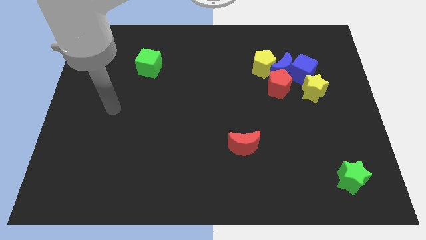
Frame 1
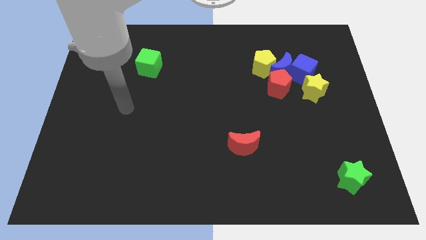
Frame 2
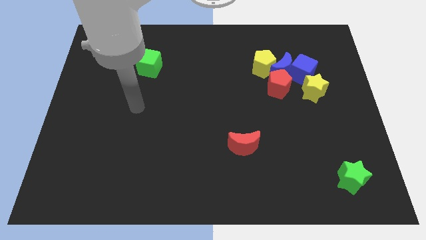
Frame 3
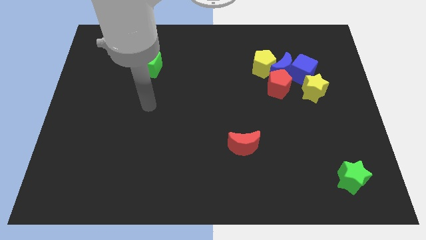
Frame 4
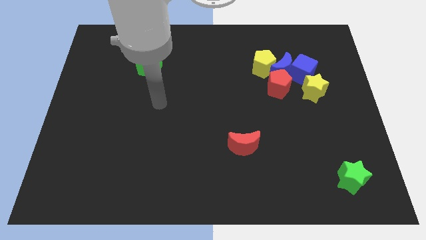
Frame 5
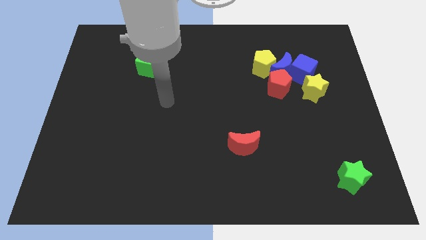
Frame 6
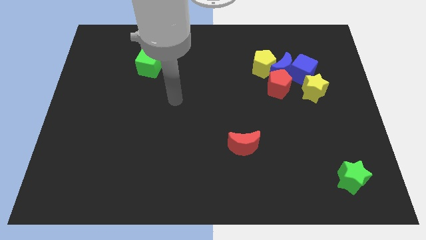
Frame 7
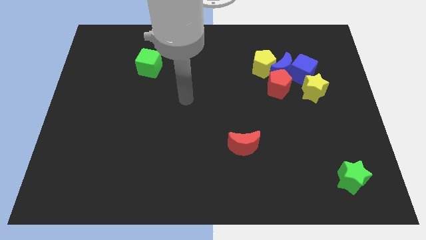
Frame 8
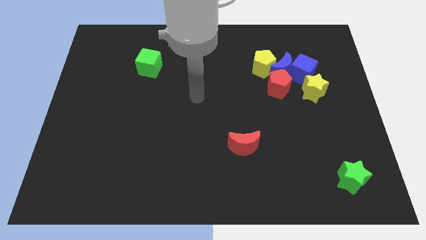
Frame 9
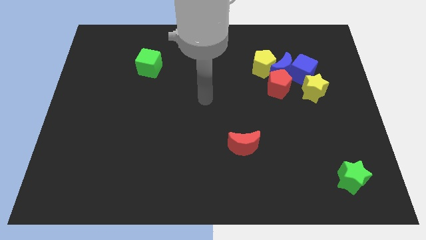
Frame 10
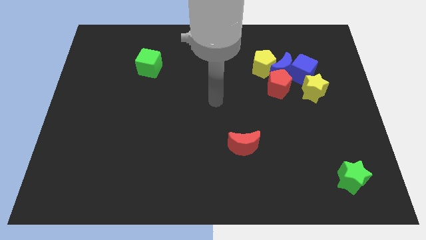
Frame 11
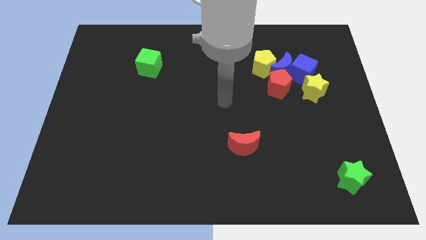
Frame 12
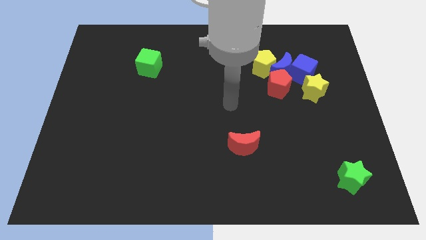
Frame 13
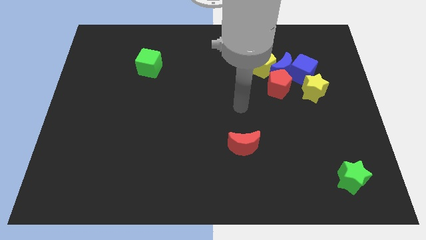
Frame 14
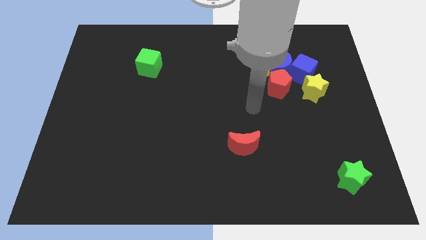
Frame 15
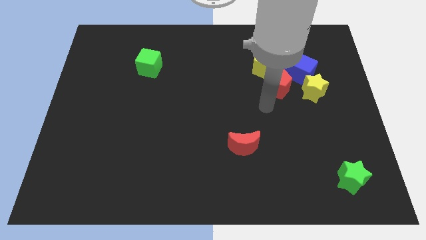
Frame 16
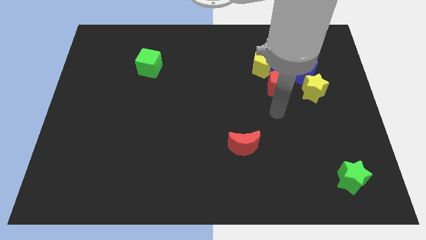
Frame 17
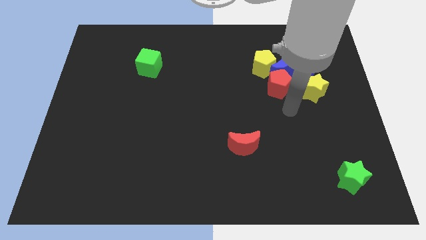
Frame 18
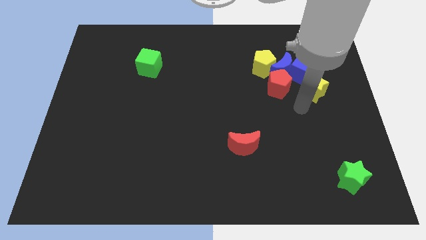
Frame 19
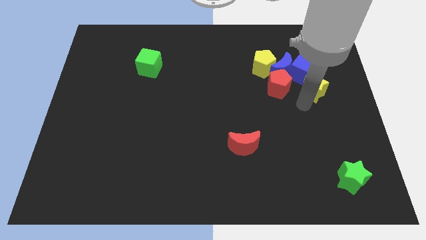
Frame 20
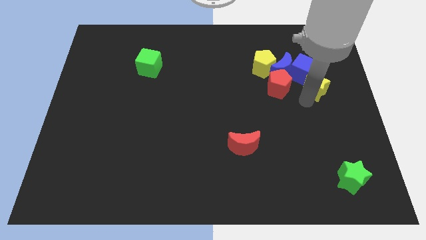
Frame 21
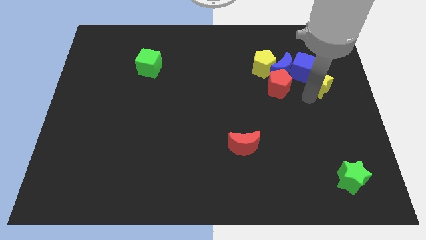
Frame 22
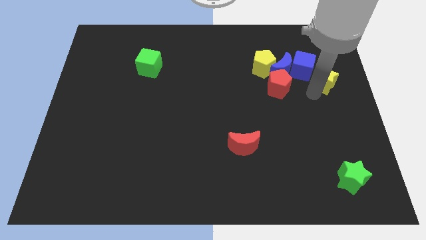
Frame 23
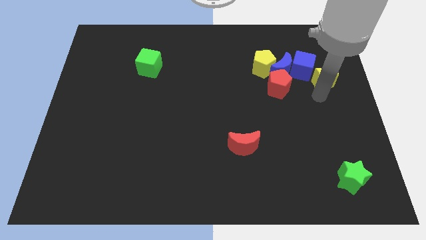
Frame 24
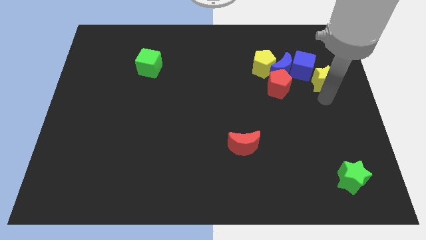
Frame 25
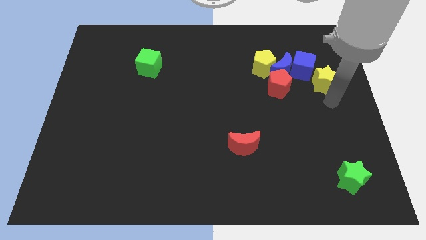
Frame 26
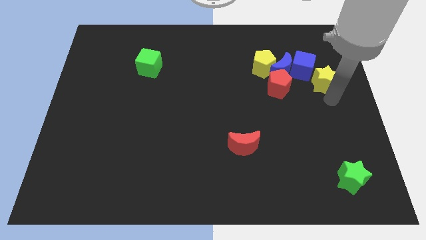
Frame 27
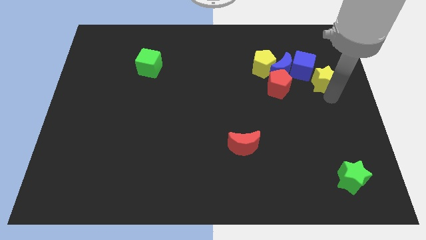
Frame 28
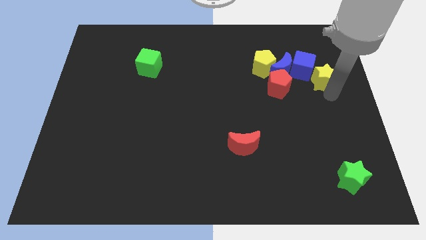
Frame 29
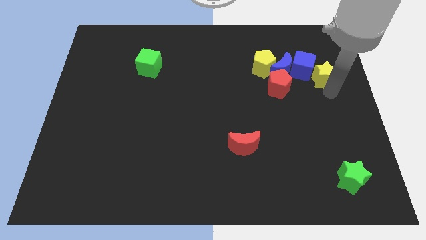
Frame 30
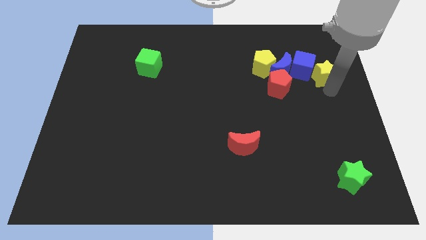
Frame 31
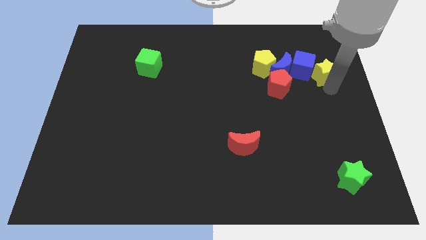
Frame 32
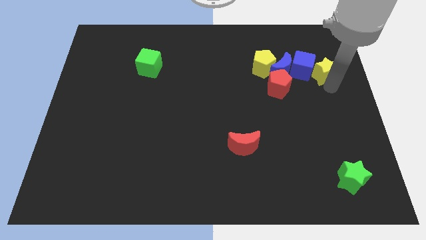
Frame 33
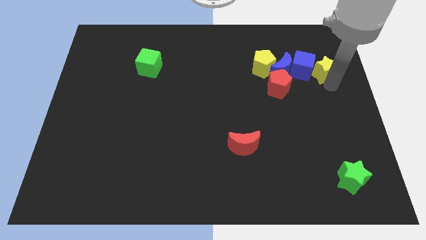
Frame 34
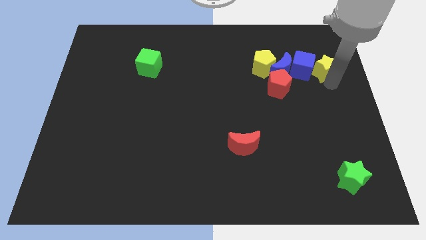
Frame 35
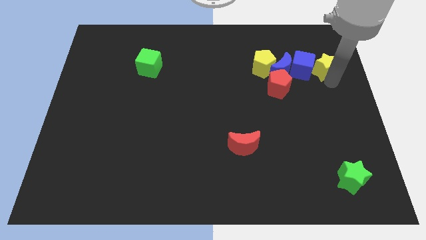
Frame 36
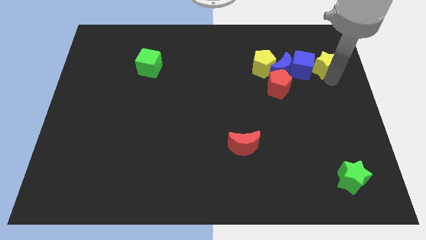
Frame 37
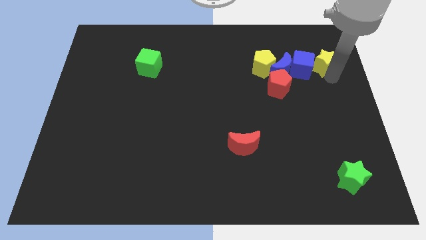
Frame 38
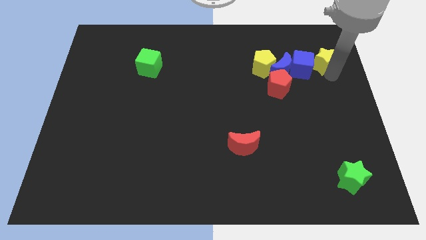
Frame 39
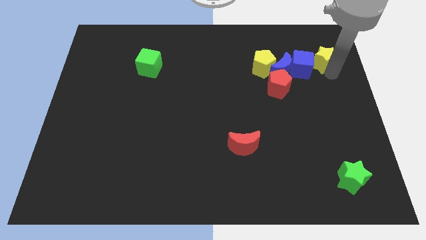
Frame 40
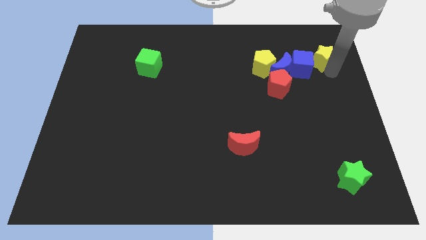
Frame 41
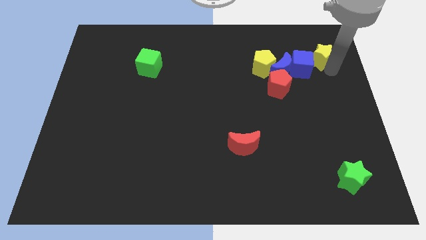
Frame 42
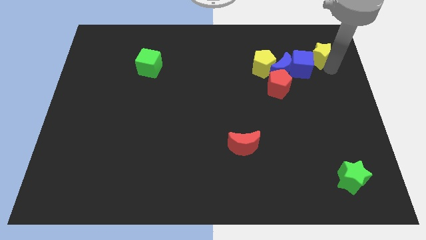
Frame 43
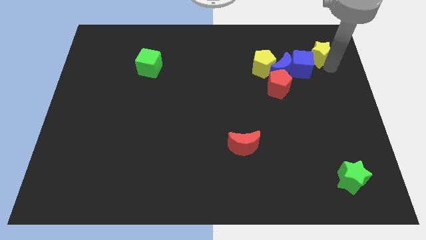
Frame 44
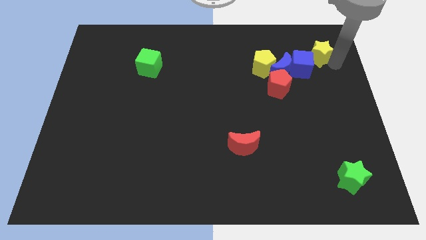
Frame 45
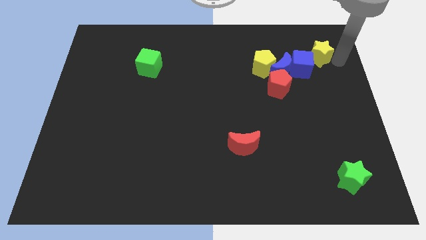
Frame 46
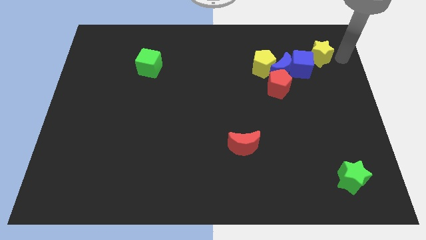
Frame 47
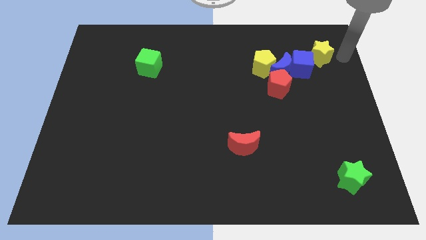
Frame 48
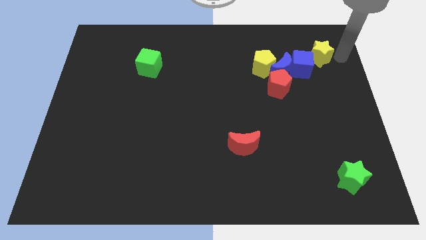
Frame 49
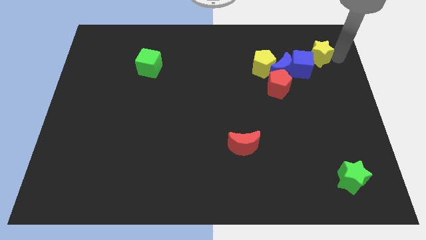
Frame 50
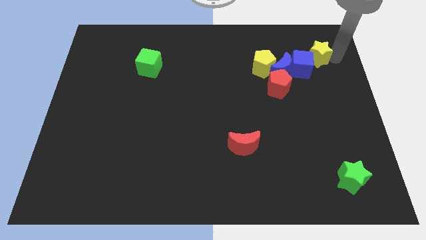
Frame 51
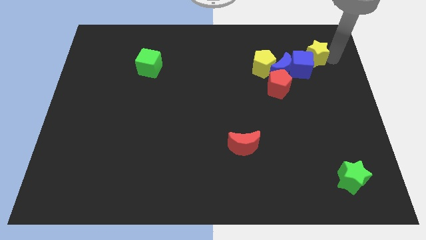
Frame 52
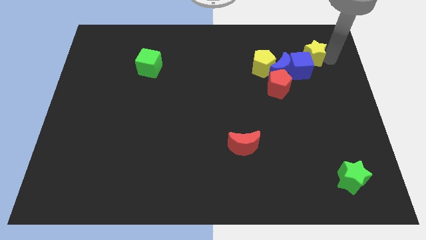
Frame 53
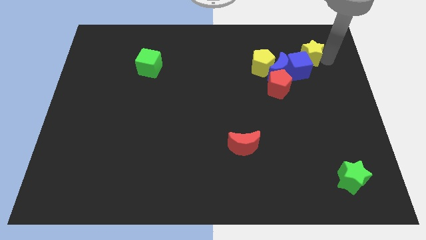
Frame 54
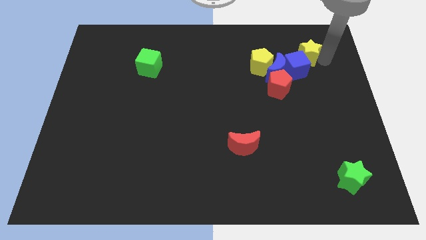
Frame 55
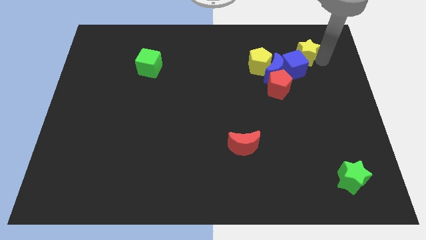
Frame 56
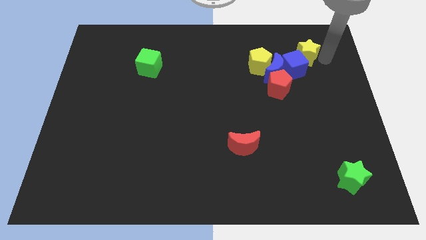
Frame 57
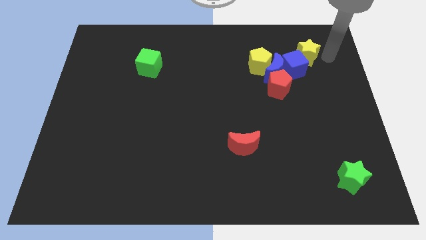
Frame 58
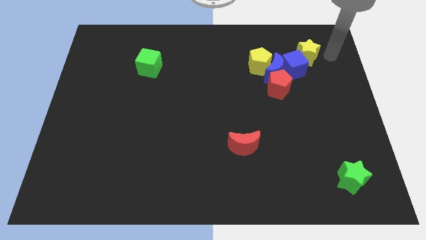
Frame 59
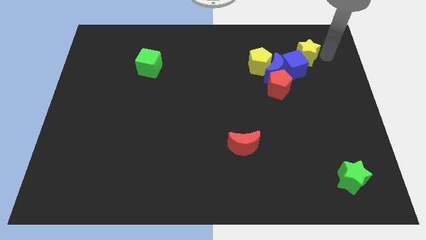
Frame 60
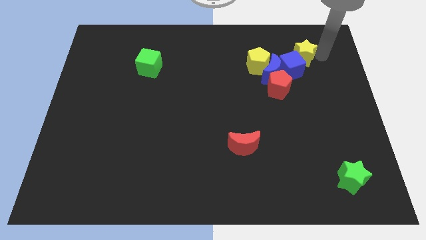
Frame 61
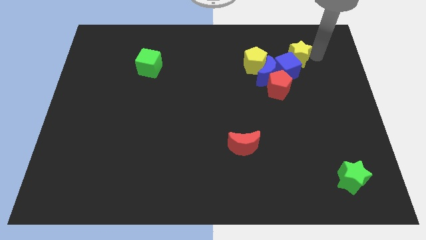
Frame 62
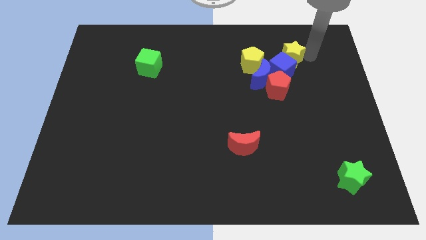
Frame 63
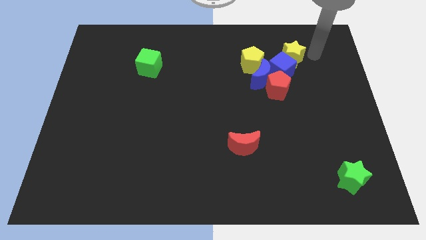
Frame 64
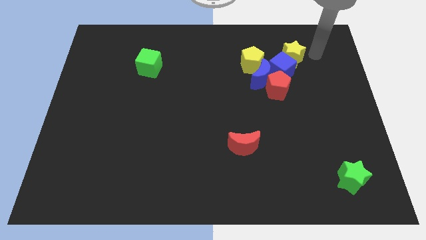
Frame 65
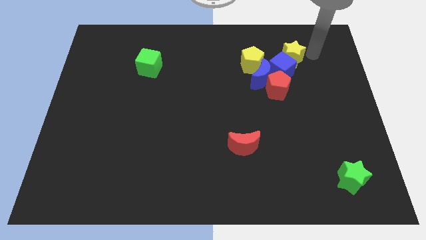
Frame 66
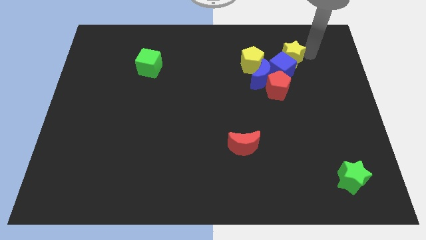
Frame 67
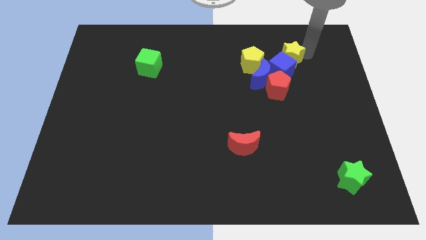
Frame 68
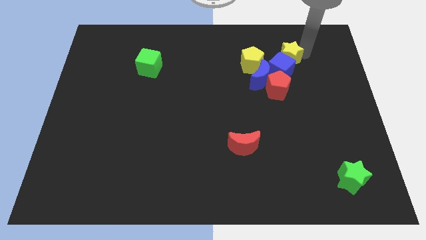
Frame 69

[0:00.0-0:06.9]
move the yellow star above the red pentagon
